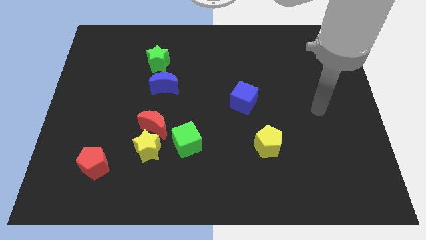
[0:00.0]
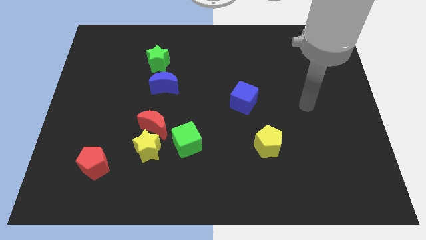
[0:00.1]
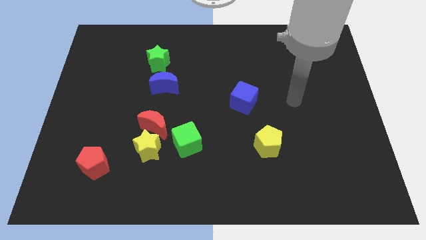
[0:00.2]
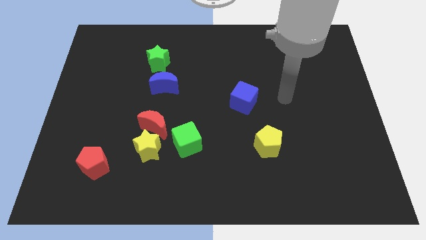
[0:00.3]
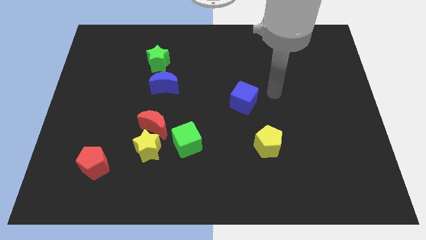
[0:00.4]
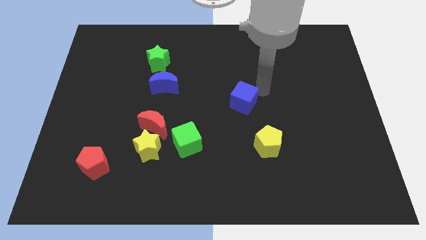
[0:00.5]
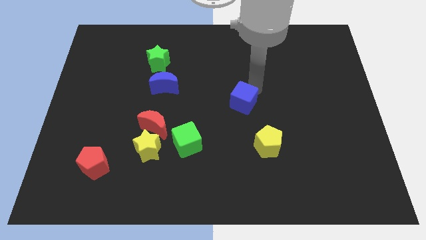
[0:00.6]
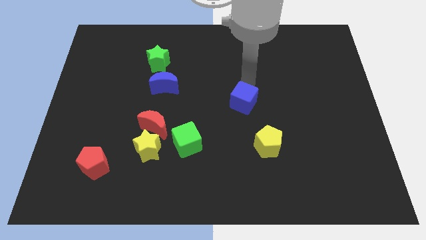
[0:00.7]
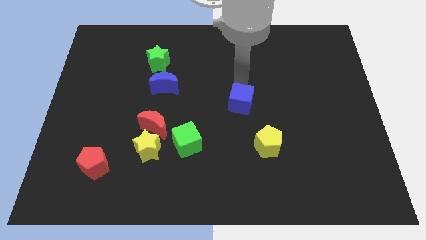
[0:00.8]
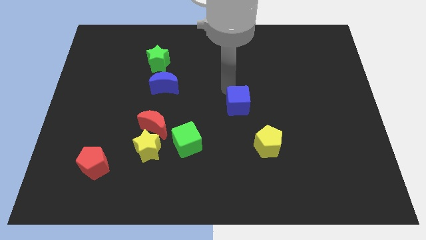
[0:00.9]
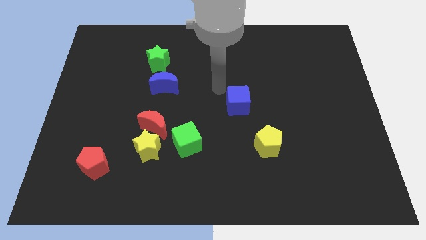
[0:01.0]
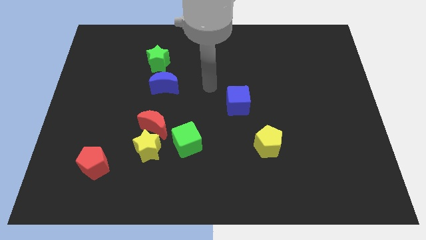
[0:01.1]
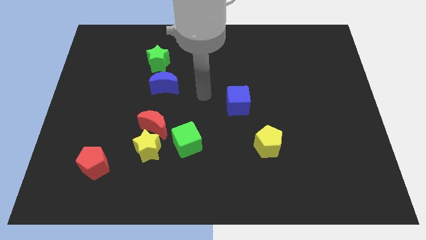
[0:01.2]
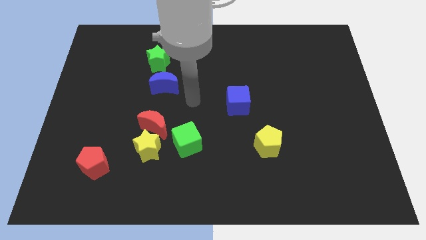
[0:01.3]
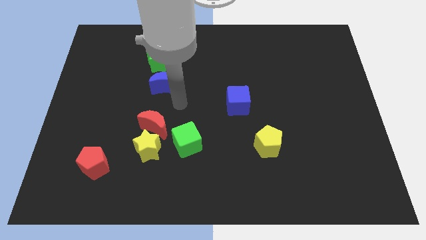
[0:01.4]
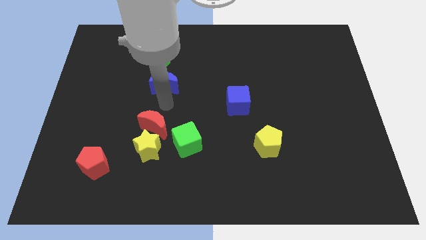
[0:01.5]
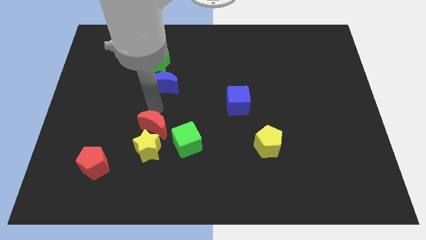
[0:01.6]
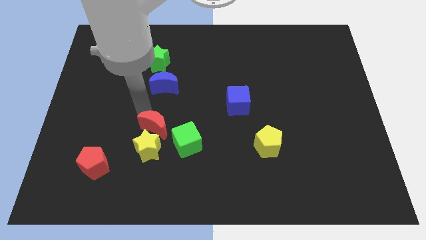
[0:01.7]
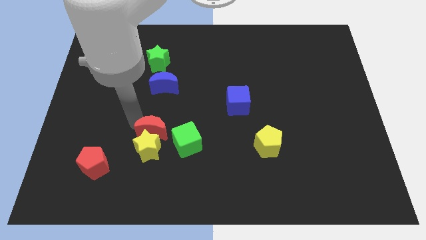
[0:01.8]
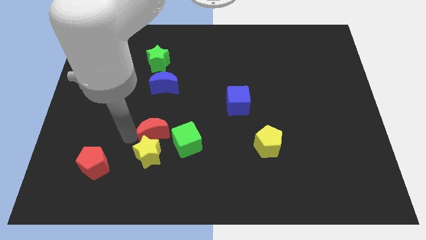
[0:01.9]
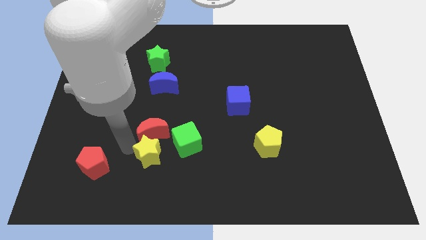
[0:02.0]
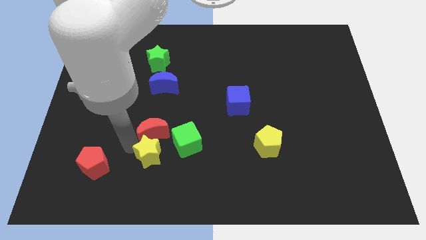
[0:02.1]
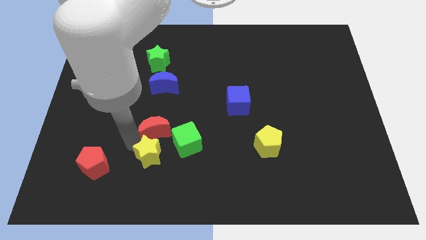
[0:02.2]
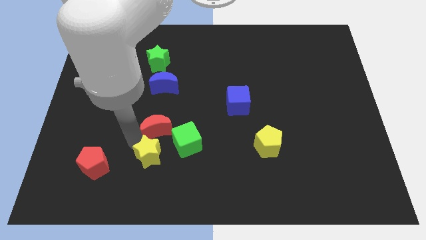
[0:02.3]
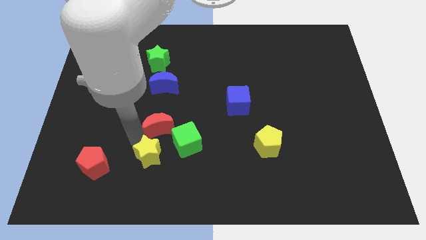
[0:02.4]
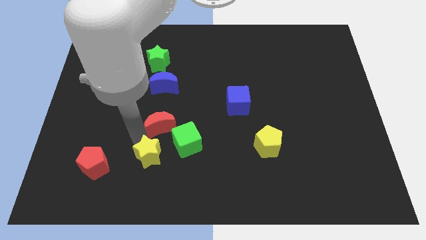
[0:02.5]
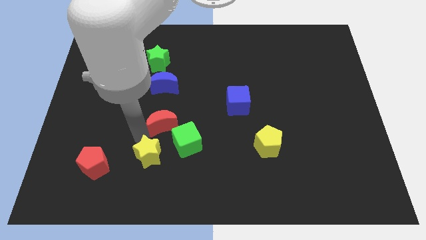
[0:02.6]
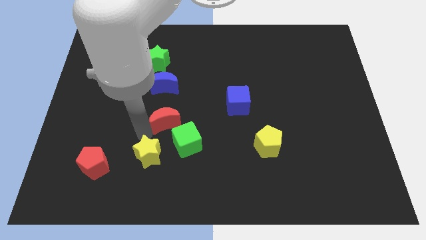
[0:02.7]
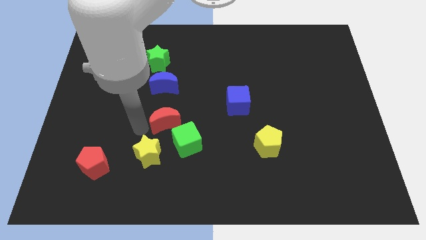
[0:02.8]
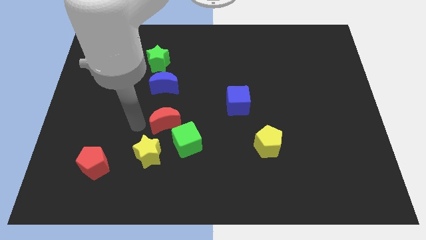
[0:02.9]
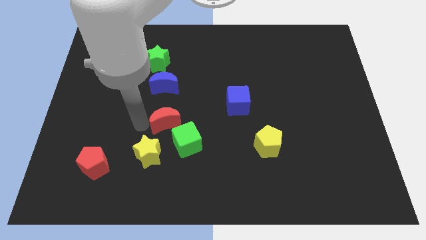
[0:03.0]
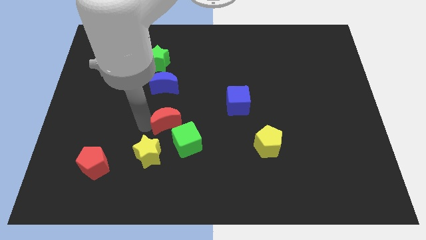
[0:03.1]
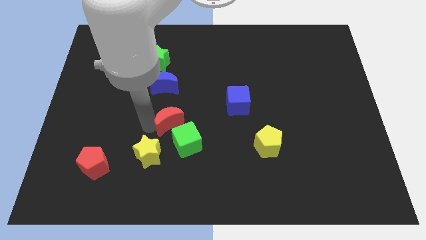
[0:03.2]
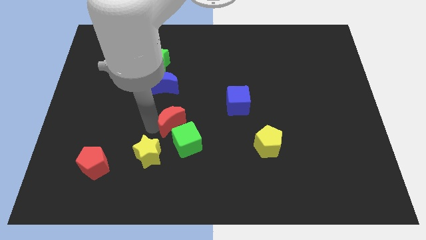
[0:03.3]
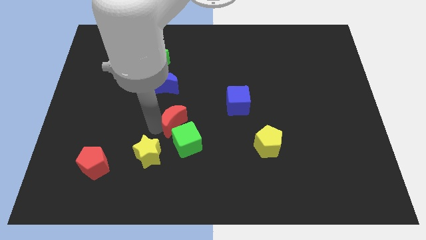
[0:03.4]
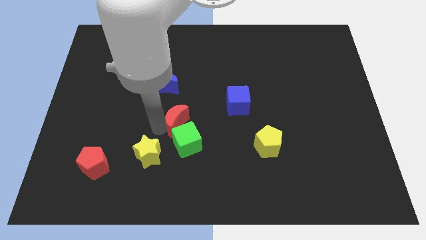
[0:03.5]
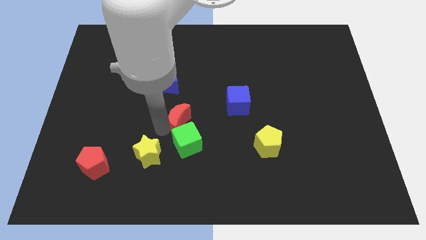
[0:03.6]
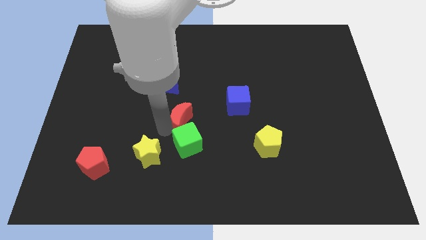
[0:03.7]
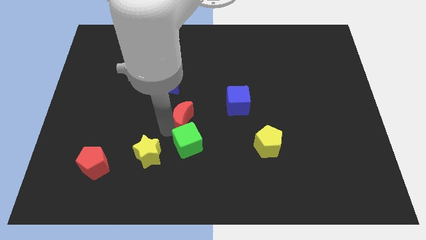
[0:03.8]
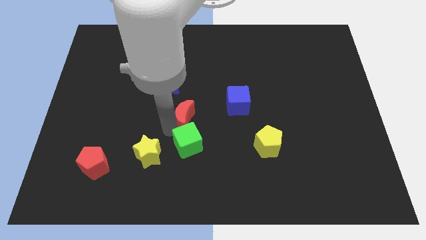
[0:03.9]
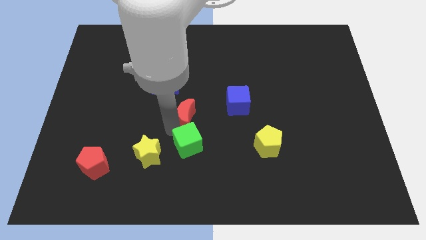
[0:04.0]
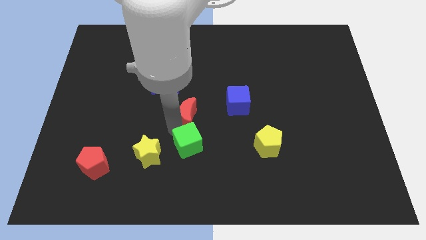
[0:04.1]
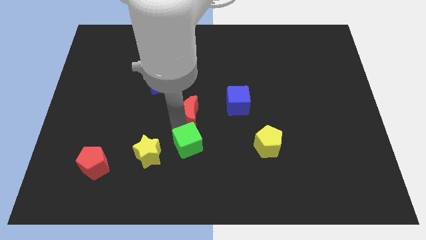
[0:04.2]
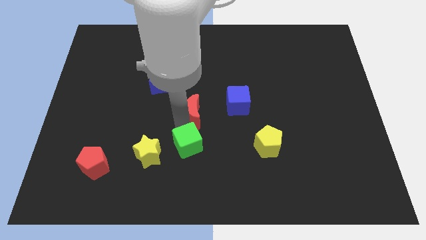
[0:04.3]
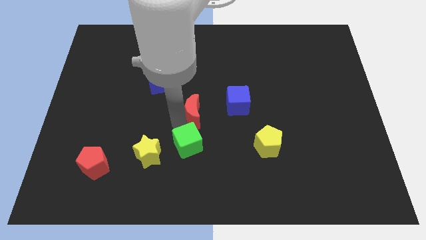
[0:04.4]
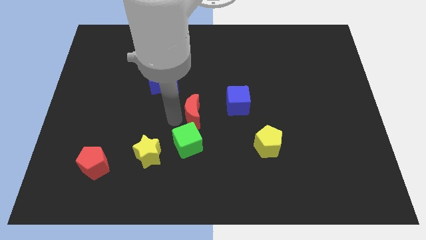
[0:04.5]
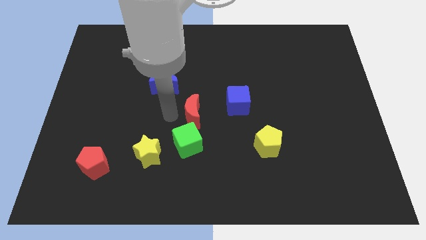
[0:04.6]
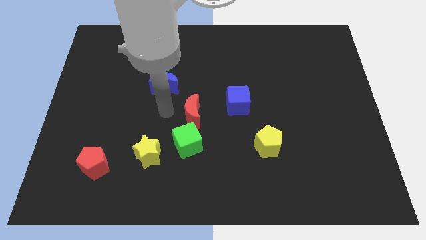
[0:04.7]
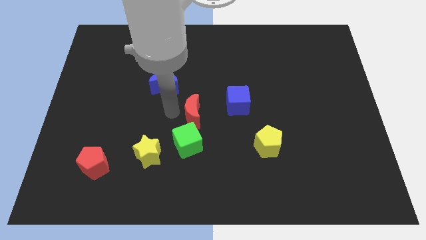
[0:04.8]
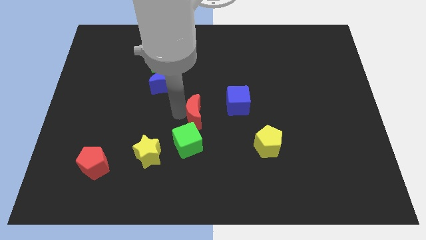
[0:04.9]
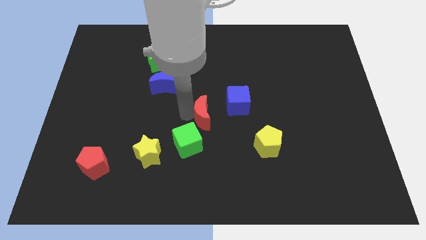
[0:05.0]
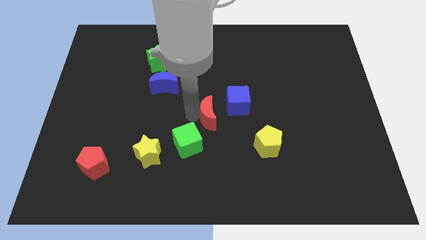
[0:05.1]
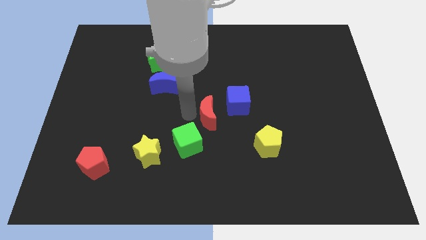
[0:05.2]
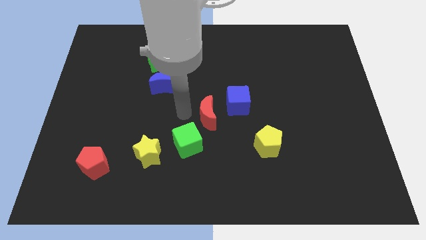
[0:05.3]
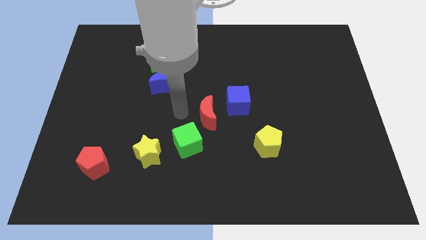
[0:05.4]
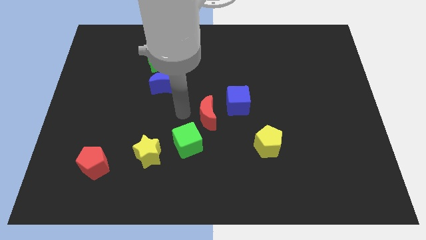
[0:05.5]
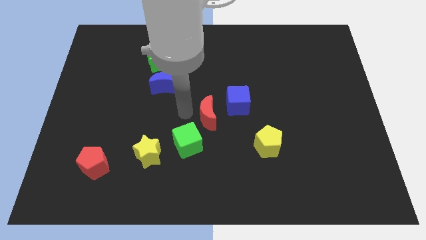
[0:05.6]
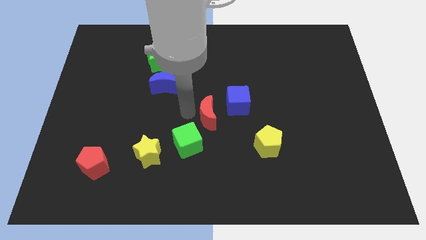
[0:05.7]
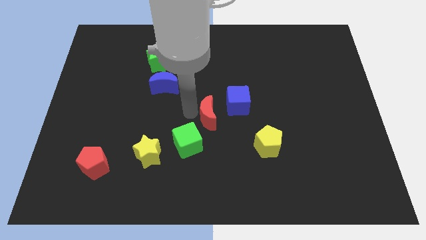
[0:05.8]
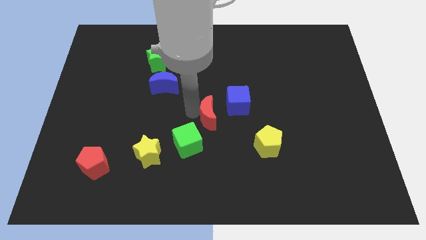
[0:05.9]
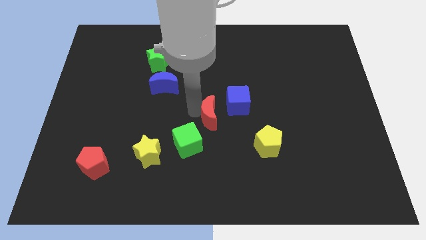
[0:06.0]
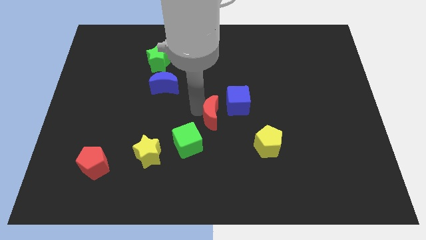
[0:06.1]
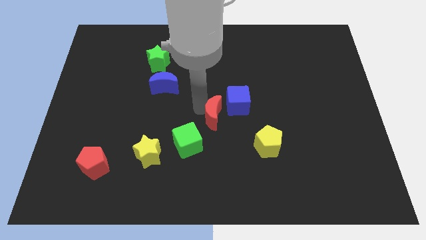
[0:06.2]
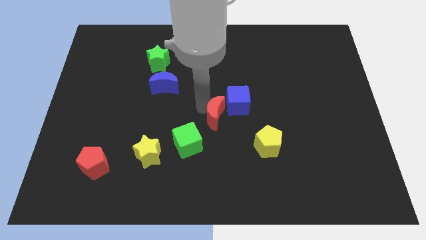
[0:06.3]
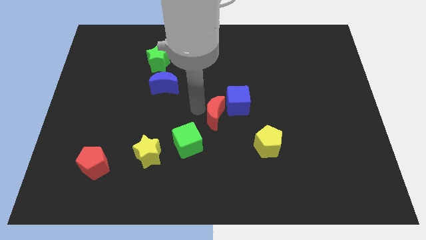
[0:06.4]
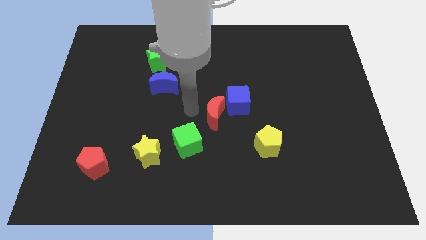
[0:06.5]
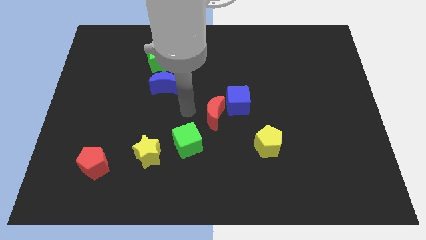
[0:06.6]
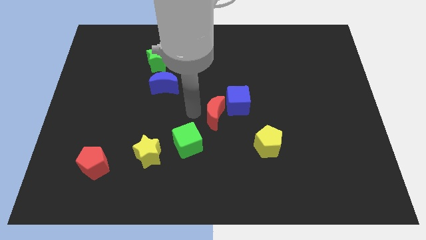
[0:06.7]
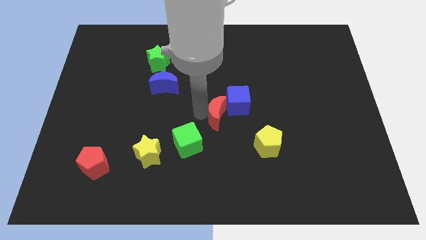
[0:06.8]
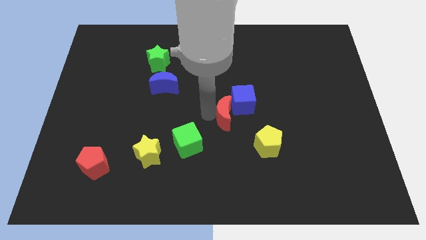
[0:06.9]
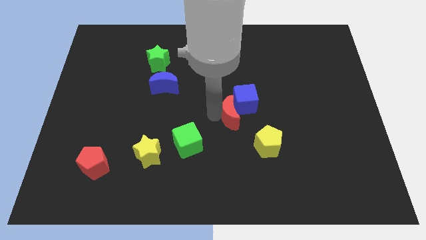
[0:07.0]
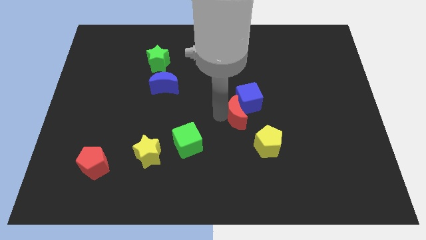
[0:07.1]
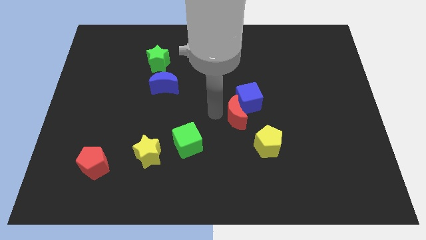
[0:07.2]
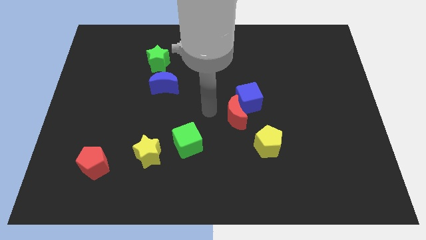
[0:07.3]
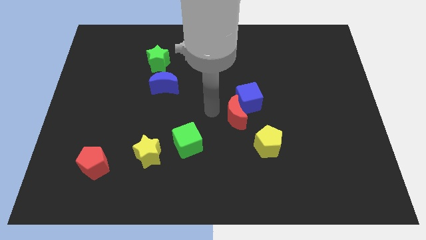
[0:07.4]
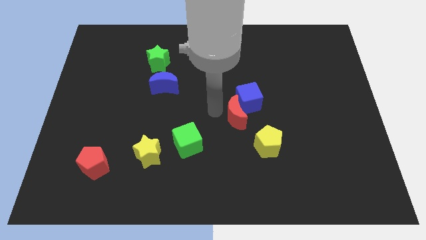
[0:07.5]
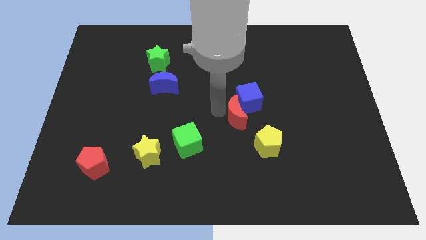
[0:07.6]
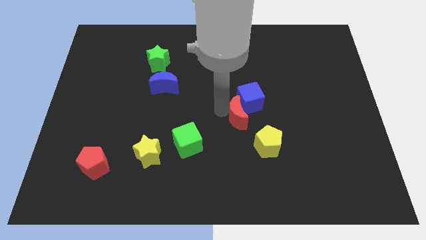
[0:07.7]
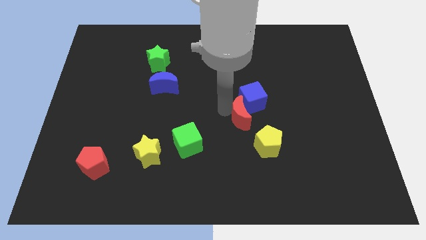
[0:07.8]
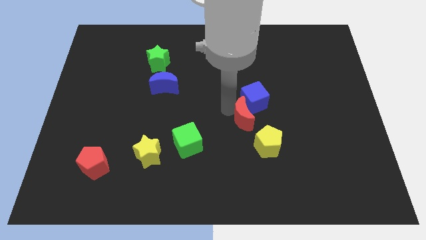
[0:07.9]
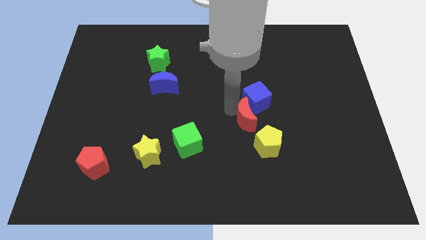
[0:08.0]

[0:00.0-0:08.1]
push the red moon right
